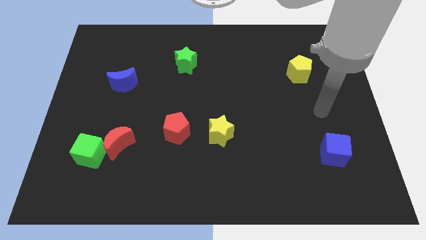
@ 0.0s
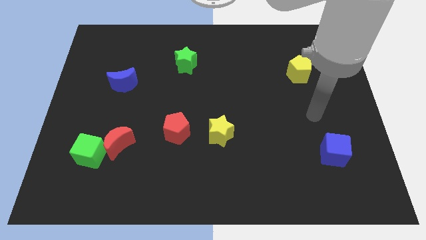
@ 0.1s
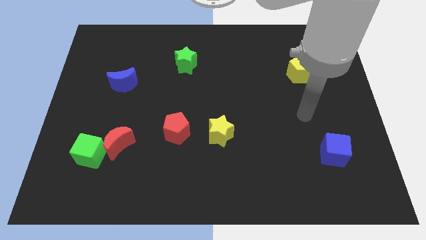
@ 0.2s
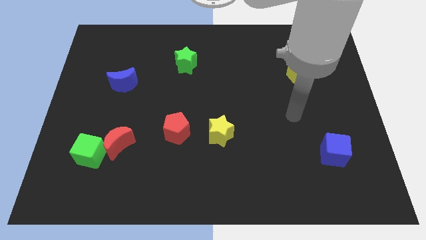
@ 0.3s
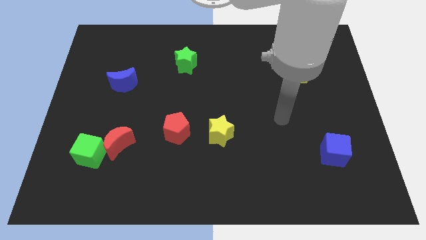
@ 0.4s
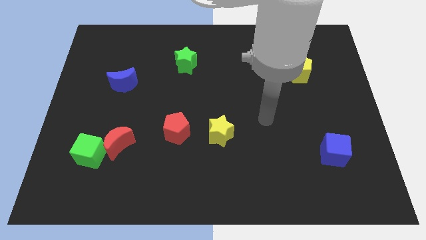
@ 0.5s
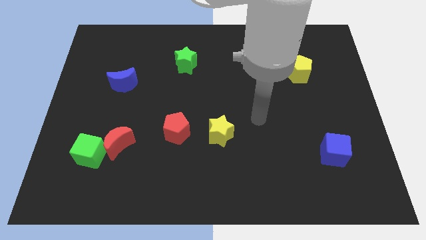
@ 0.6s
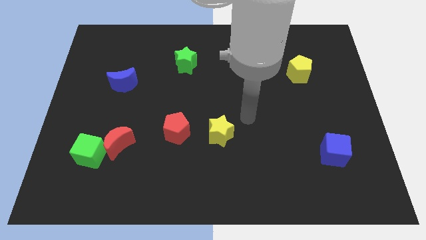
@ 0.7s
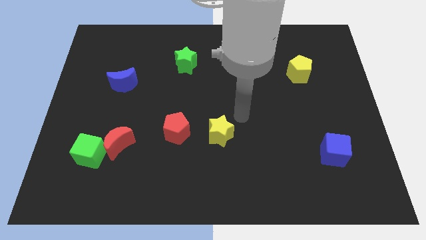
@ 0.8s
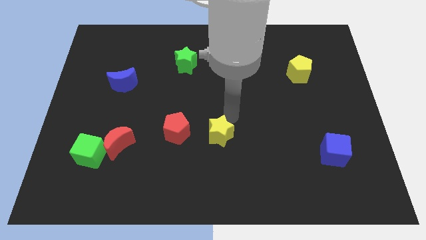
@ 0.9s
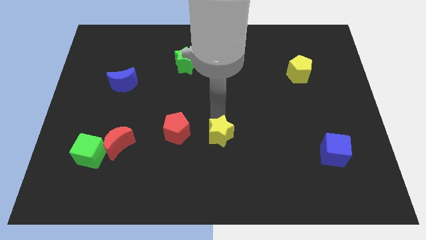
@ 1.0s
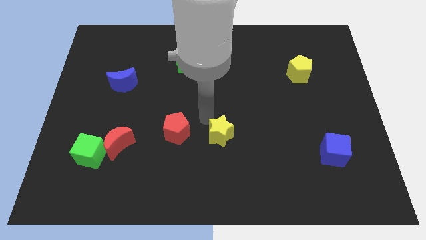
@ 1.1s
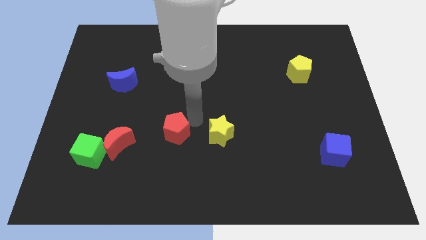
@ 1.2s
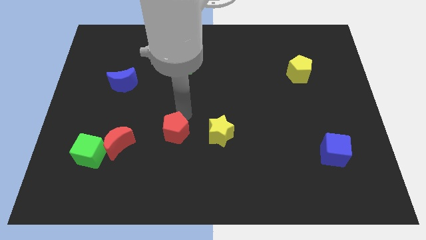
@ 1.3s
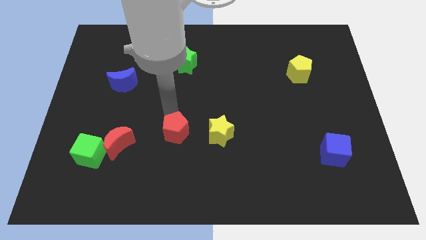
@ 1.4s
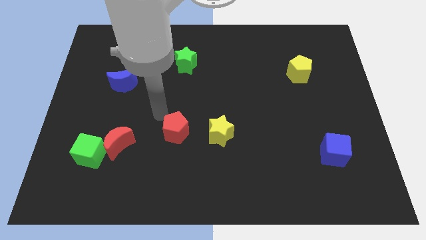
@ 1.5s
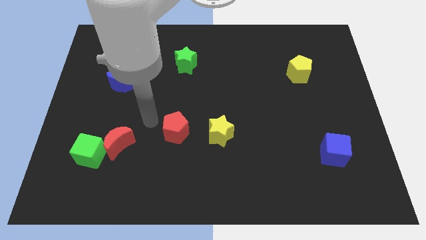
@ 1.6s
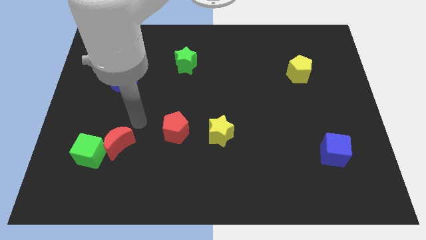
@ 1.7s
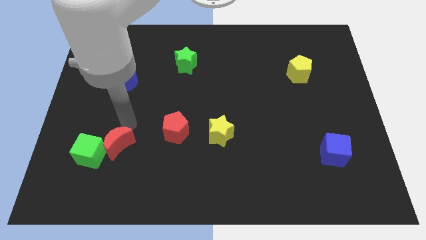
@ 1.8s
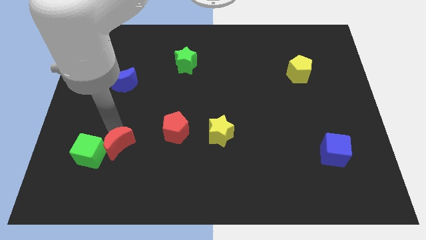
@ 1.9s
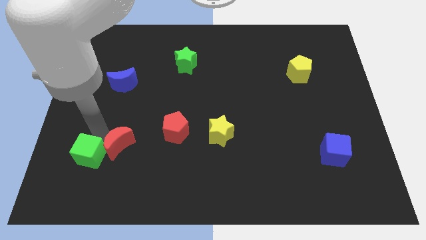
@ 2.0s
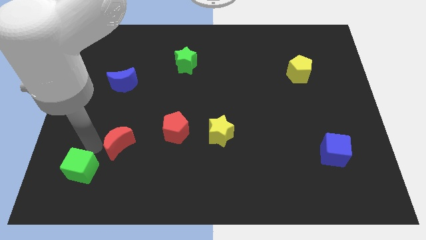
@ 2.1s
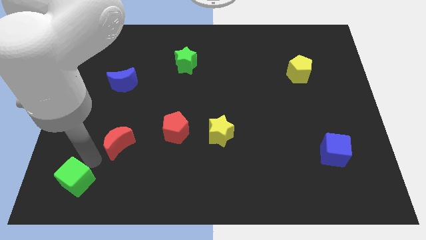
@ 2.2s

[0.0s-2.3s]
move the red moon away from the green cube

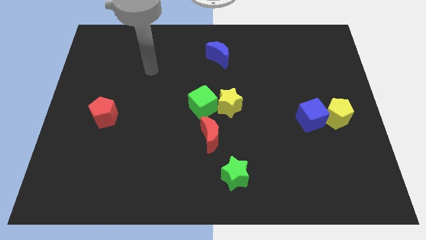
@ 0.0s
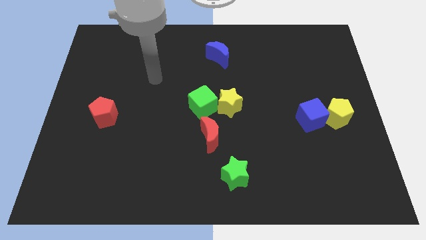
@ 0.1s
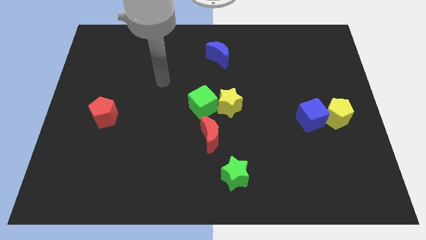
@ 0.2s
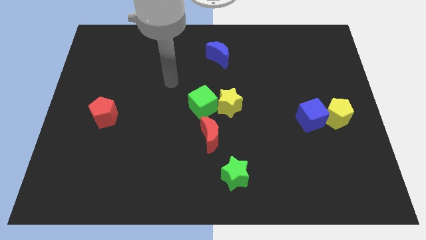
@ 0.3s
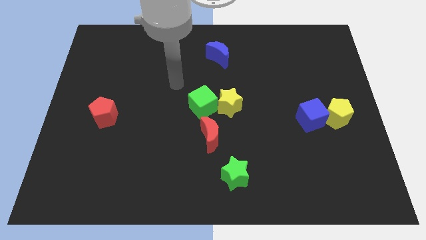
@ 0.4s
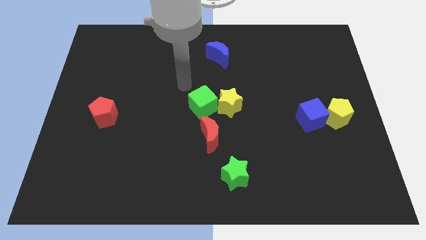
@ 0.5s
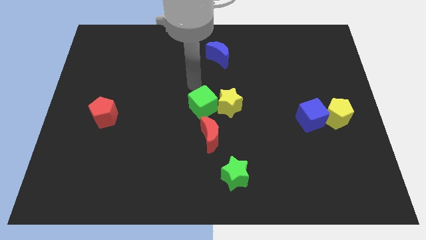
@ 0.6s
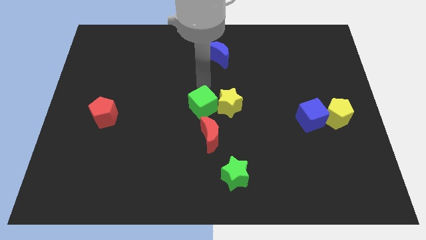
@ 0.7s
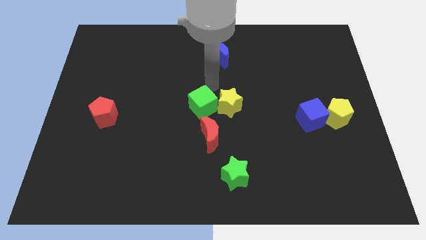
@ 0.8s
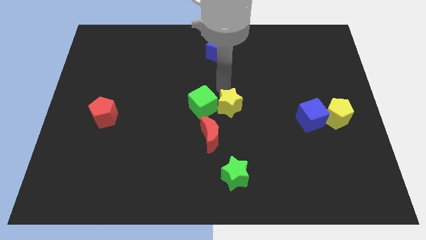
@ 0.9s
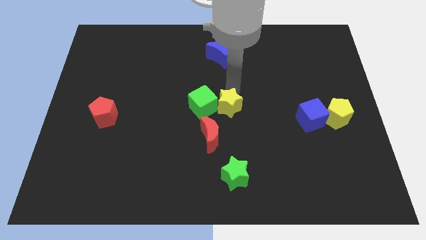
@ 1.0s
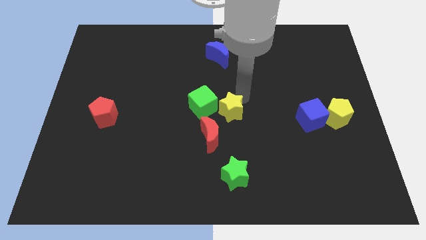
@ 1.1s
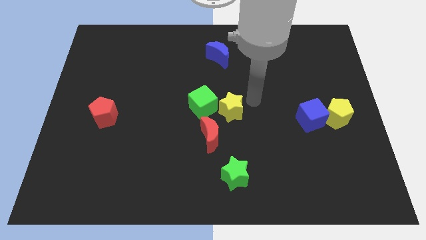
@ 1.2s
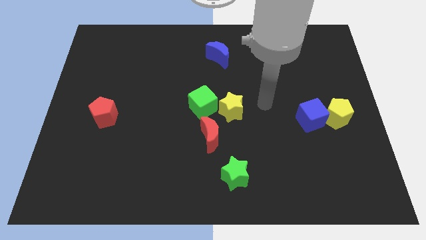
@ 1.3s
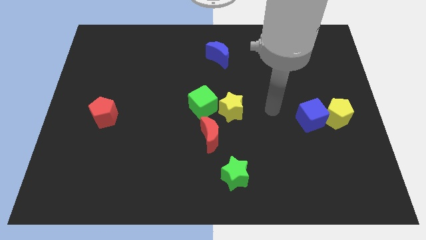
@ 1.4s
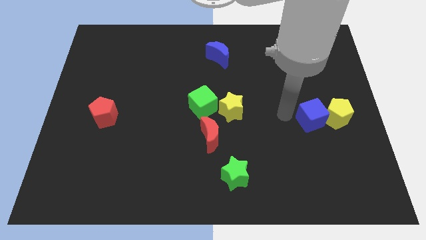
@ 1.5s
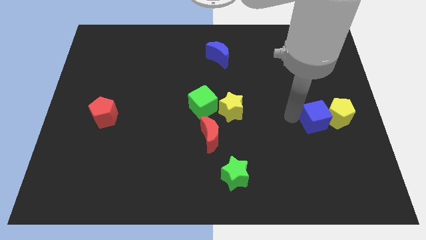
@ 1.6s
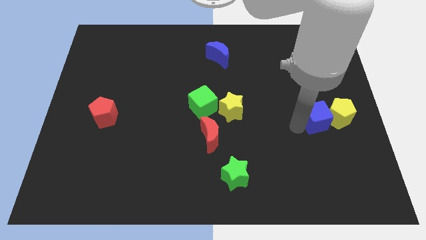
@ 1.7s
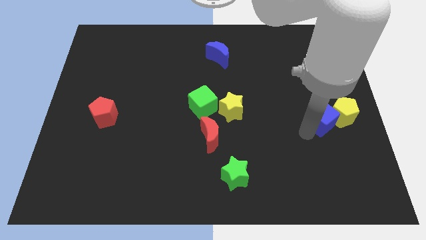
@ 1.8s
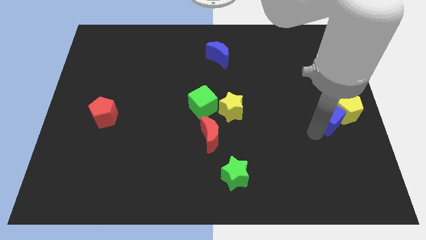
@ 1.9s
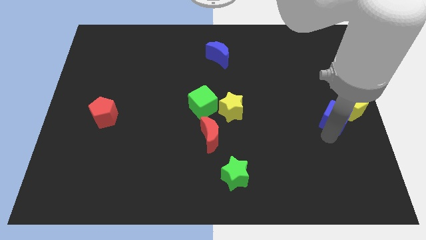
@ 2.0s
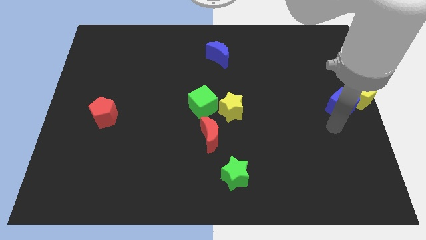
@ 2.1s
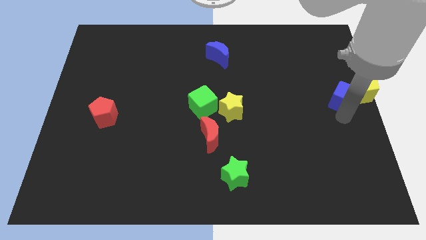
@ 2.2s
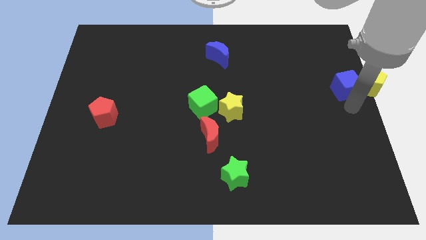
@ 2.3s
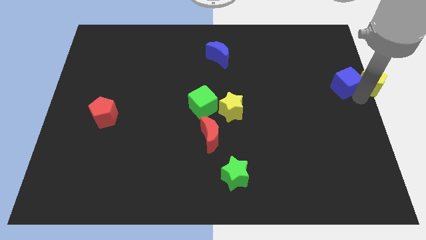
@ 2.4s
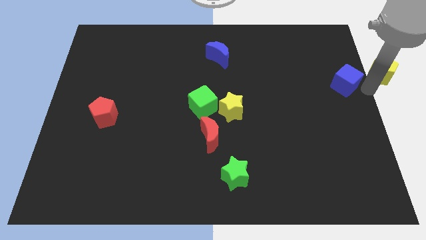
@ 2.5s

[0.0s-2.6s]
separate the blue cube from the yellow pentagon

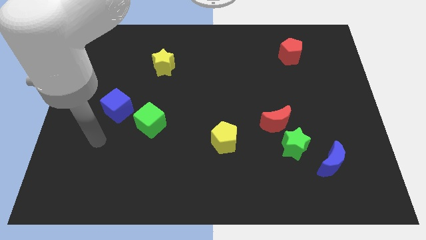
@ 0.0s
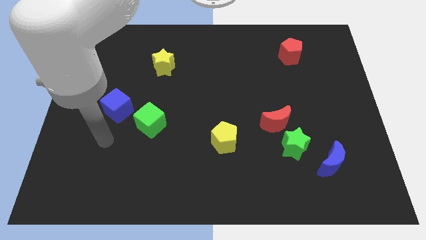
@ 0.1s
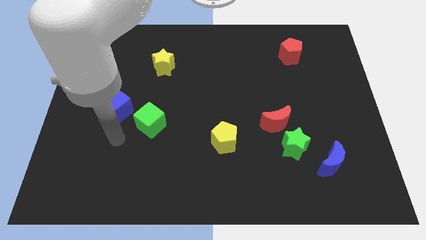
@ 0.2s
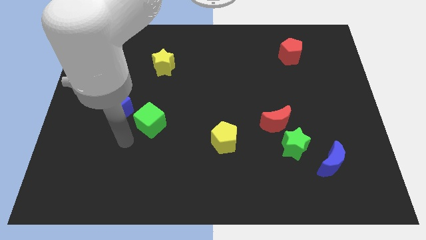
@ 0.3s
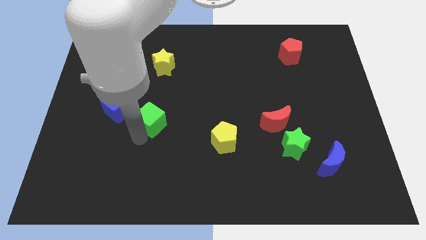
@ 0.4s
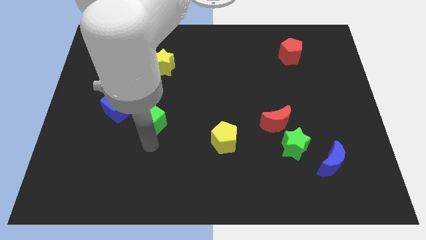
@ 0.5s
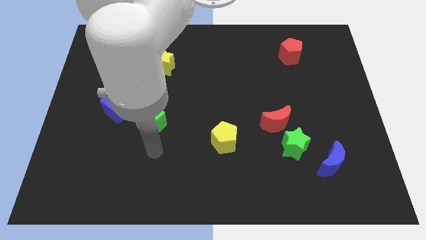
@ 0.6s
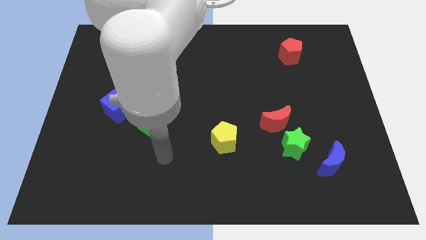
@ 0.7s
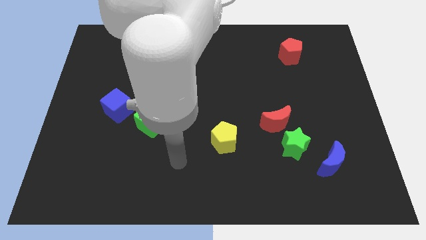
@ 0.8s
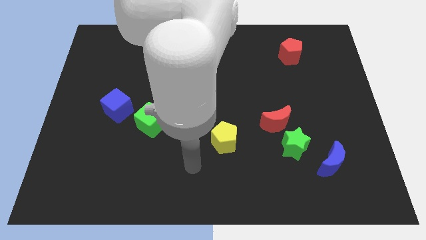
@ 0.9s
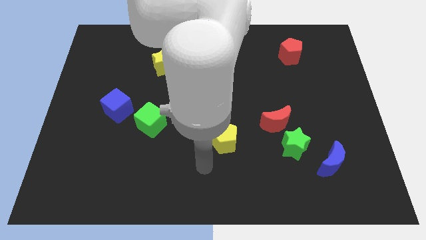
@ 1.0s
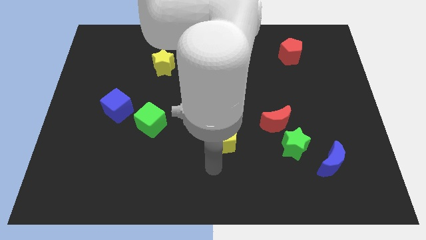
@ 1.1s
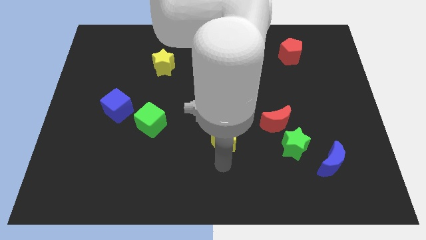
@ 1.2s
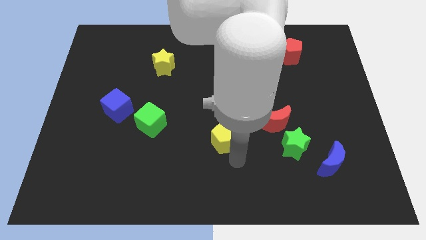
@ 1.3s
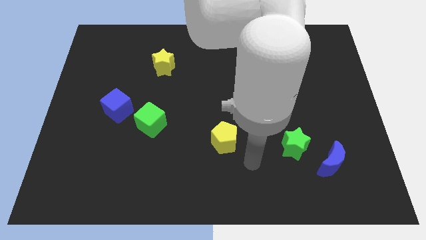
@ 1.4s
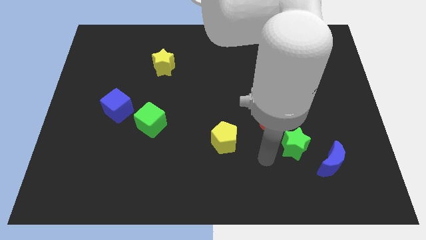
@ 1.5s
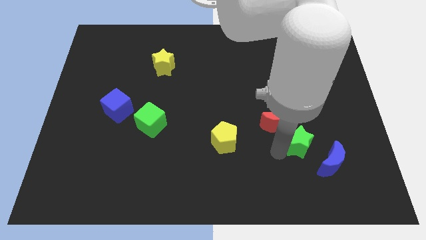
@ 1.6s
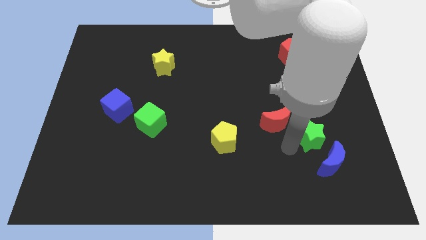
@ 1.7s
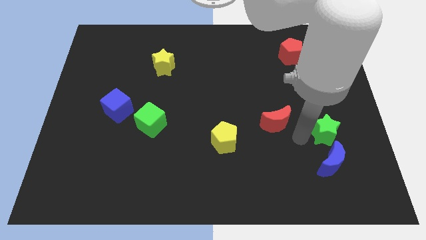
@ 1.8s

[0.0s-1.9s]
separate the red moon from the green star

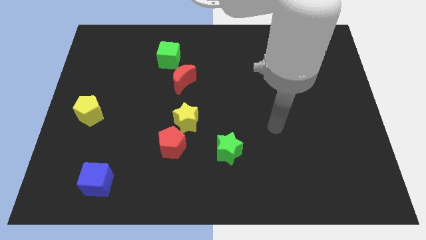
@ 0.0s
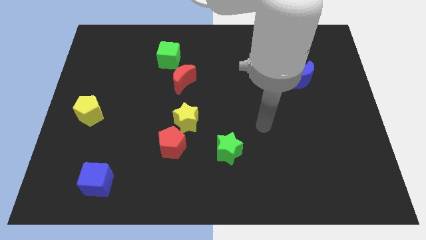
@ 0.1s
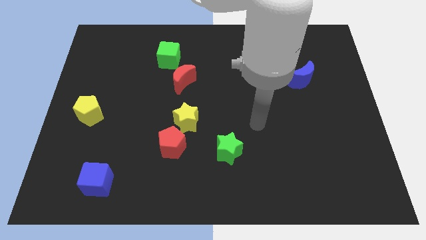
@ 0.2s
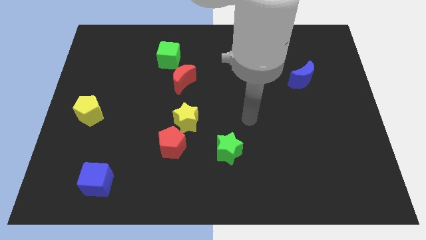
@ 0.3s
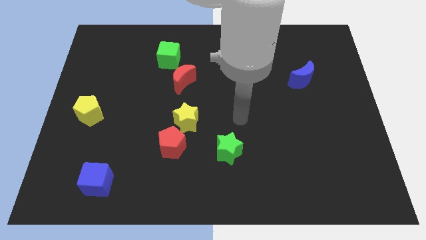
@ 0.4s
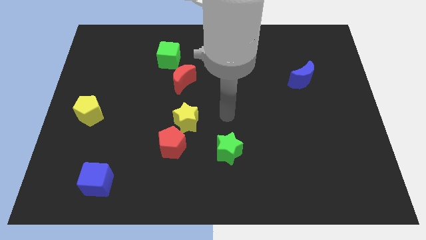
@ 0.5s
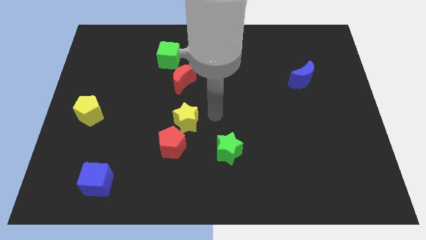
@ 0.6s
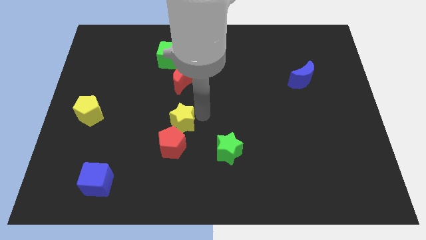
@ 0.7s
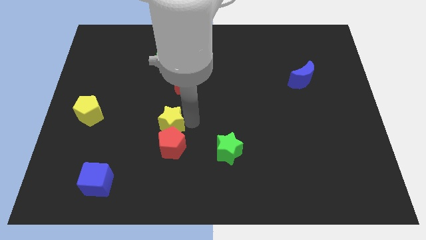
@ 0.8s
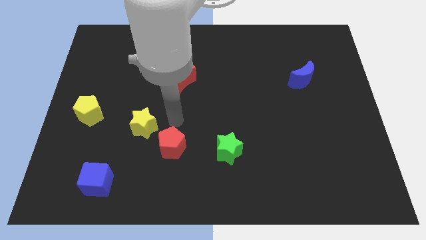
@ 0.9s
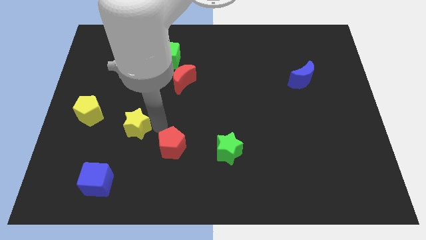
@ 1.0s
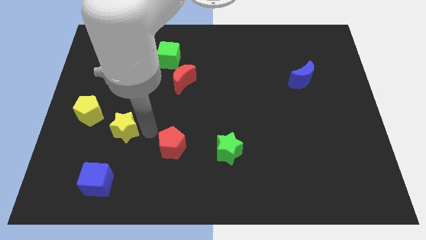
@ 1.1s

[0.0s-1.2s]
move the red pentagon away from the yellow star

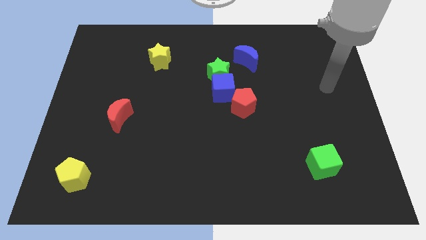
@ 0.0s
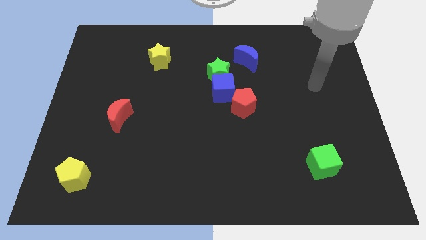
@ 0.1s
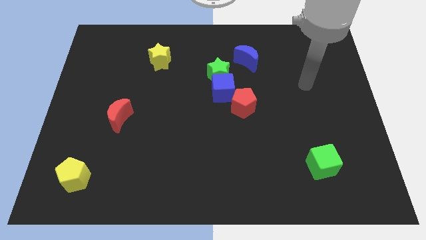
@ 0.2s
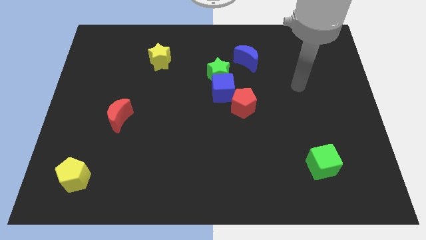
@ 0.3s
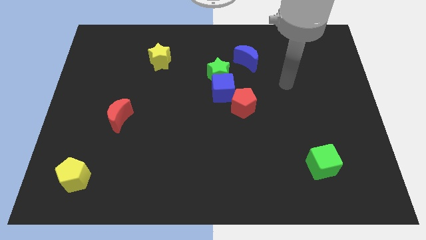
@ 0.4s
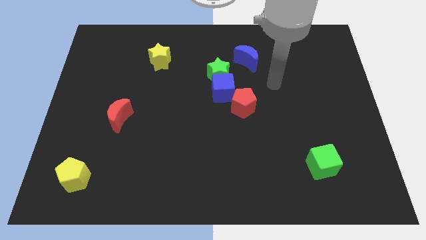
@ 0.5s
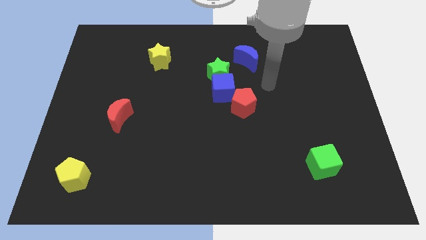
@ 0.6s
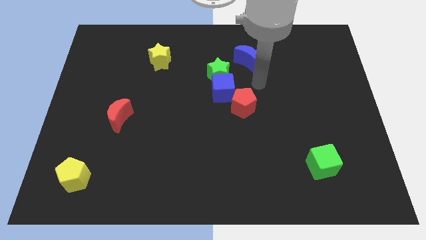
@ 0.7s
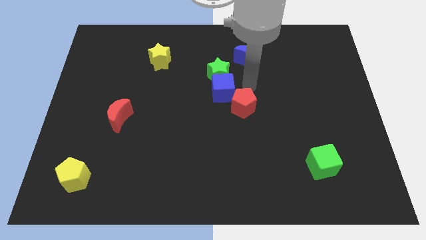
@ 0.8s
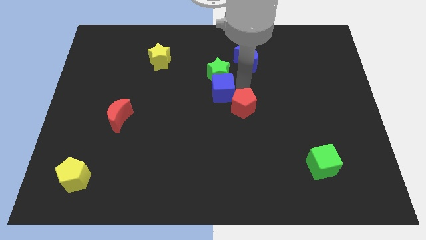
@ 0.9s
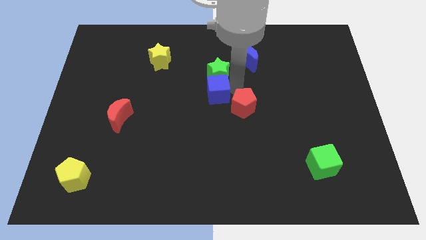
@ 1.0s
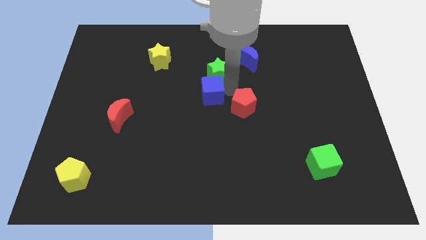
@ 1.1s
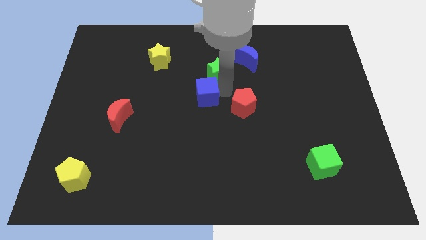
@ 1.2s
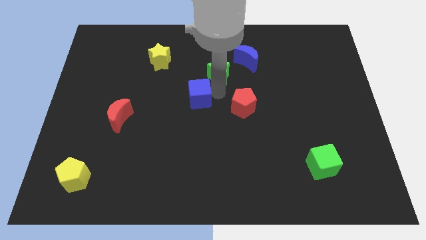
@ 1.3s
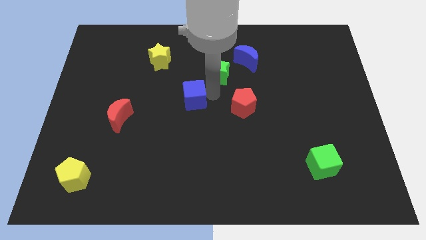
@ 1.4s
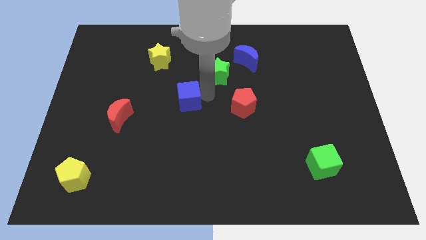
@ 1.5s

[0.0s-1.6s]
pull the blue cube apart from the green star and red pentagon
